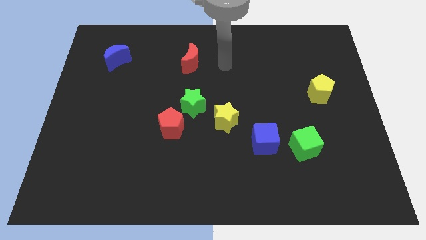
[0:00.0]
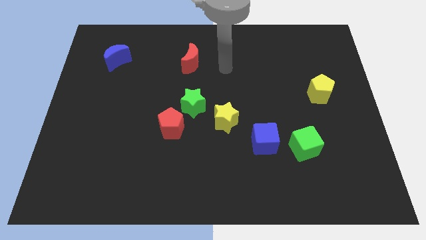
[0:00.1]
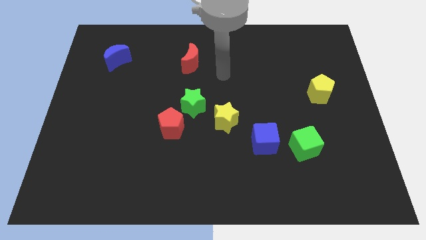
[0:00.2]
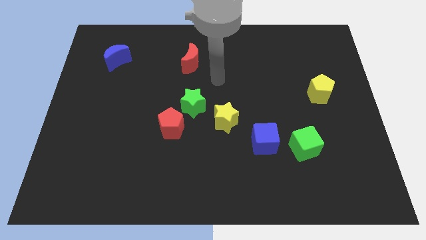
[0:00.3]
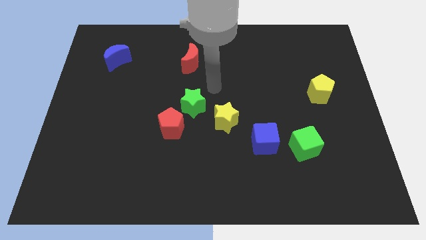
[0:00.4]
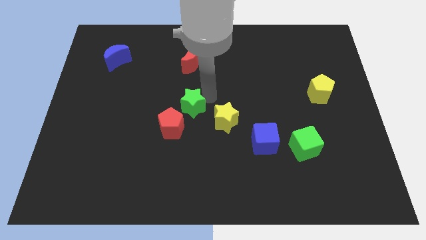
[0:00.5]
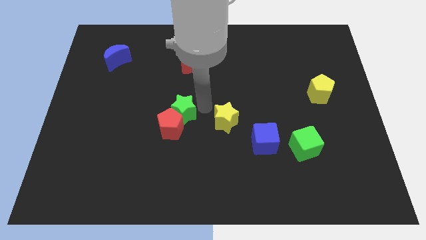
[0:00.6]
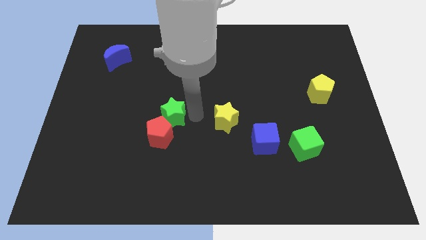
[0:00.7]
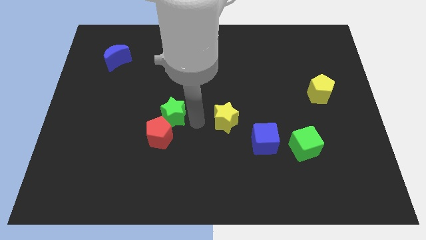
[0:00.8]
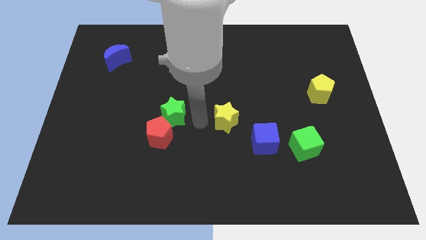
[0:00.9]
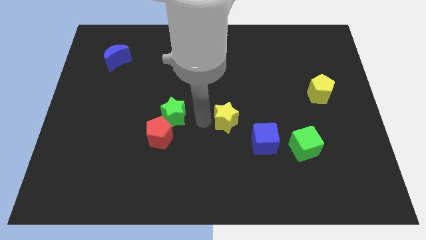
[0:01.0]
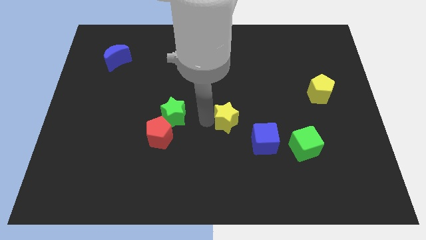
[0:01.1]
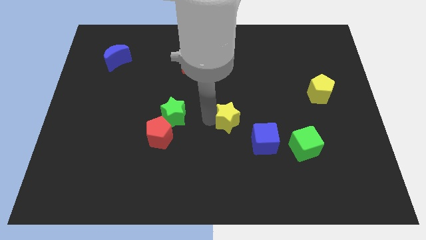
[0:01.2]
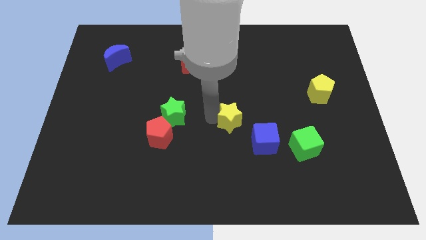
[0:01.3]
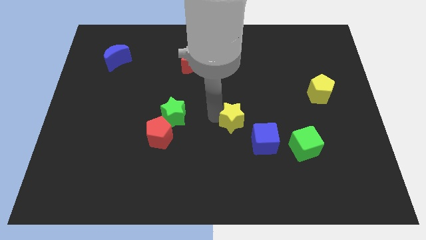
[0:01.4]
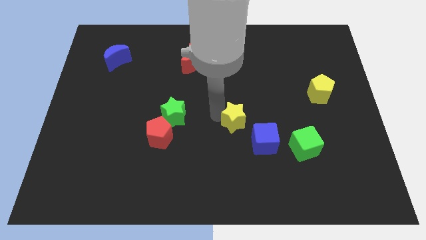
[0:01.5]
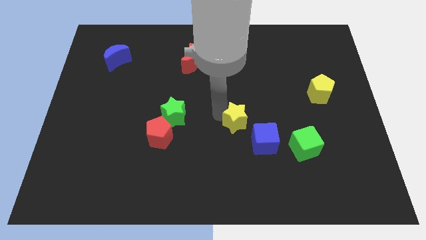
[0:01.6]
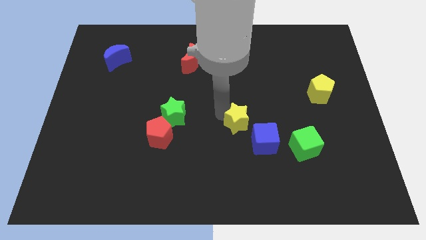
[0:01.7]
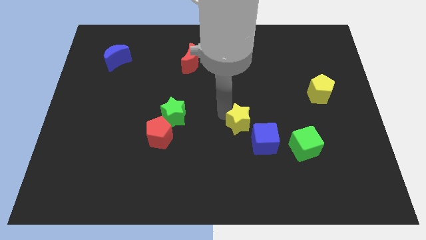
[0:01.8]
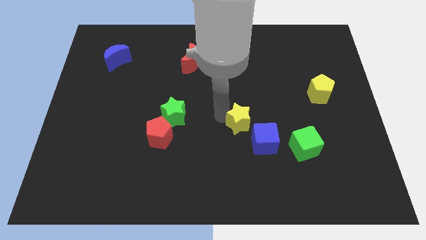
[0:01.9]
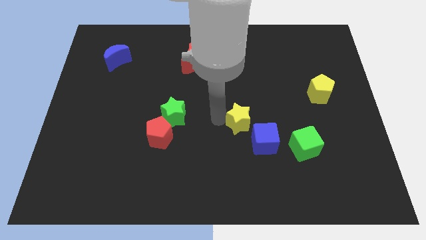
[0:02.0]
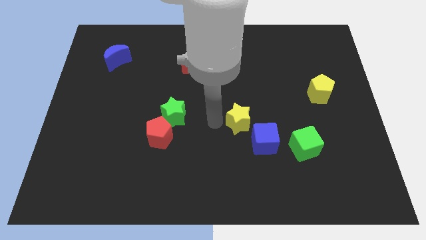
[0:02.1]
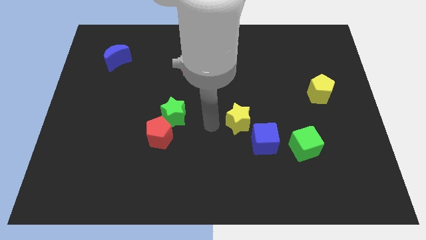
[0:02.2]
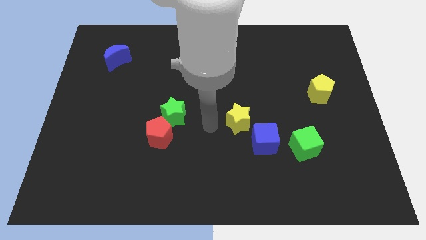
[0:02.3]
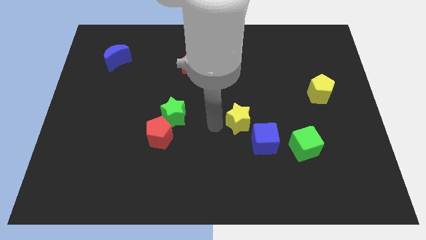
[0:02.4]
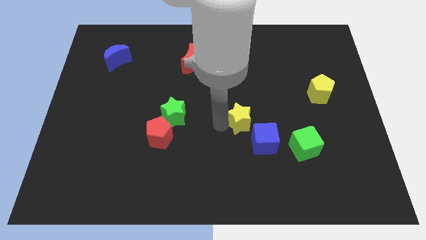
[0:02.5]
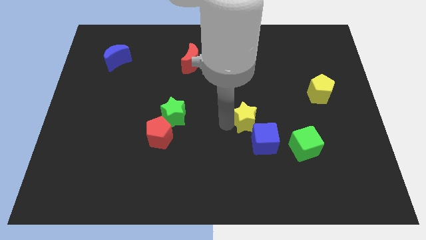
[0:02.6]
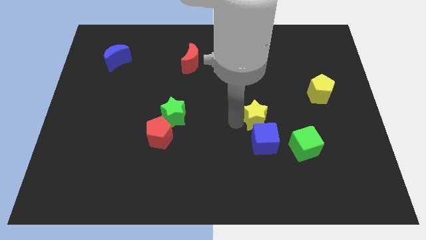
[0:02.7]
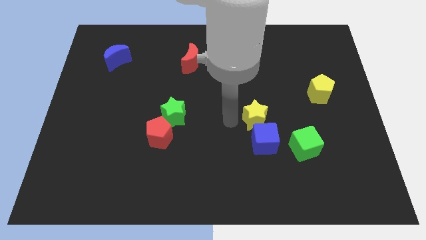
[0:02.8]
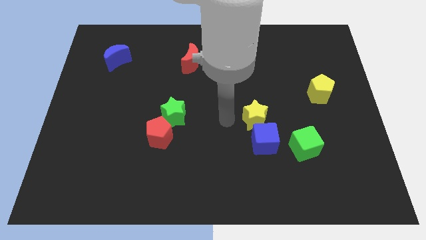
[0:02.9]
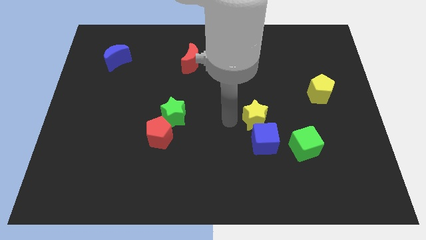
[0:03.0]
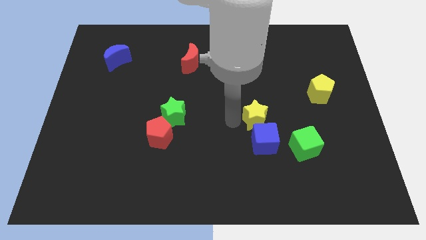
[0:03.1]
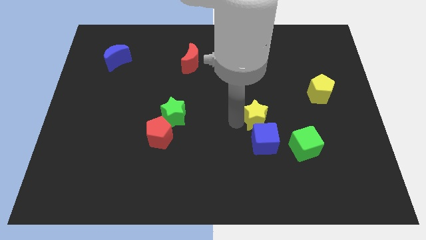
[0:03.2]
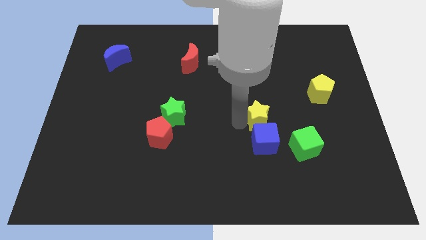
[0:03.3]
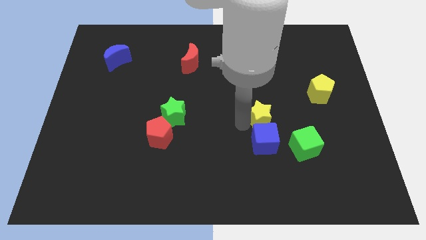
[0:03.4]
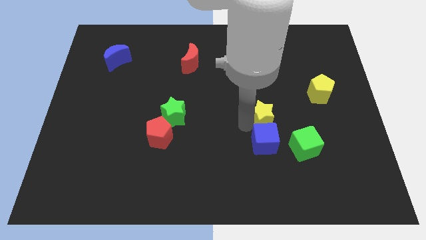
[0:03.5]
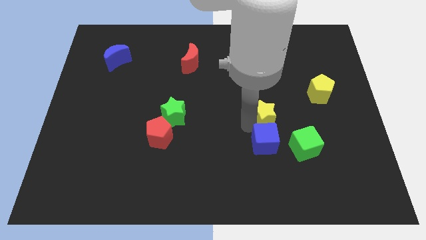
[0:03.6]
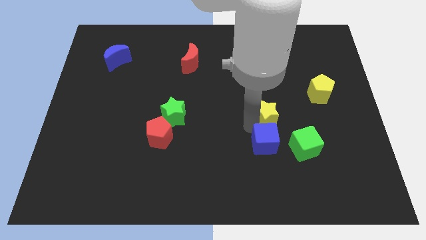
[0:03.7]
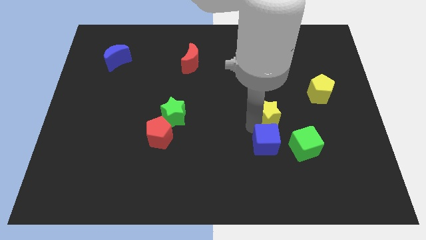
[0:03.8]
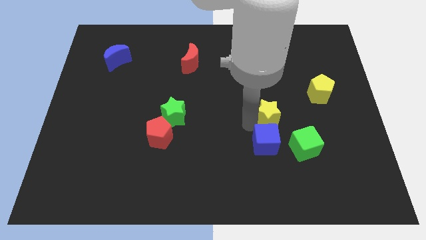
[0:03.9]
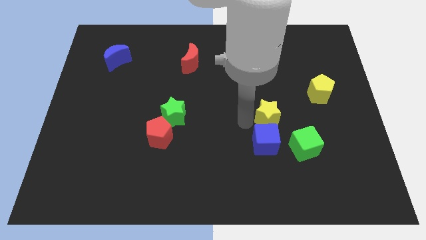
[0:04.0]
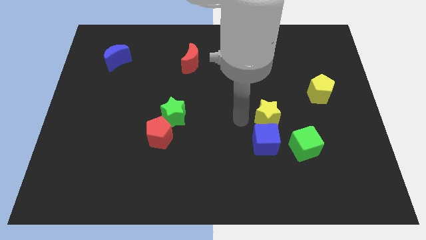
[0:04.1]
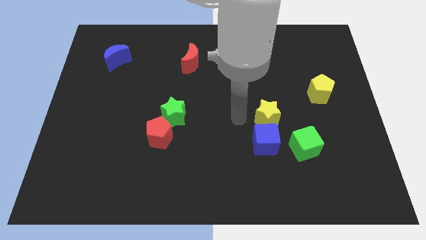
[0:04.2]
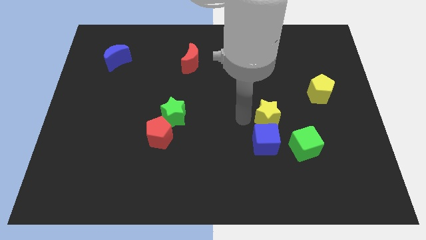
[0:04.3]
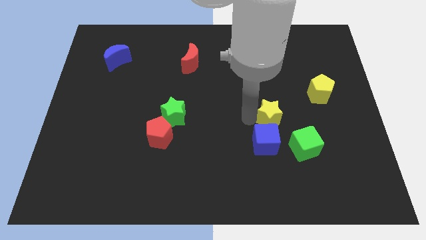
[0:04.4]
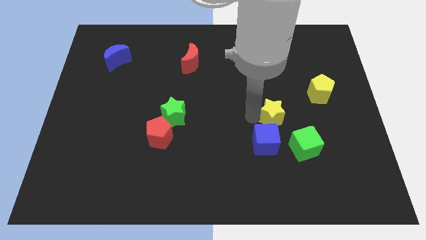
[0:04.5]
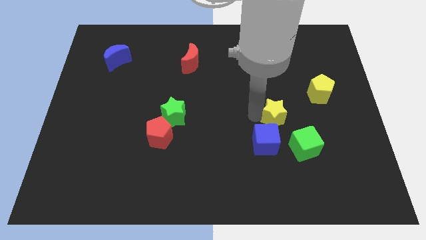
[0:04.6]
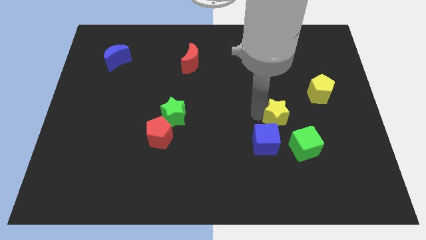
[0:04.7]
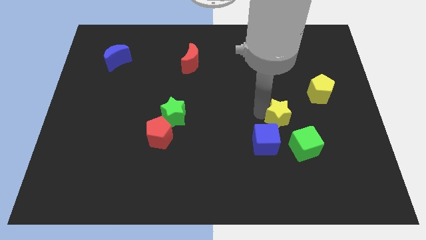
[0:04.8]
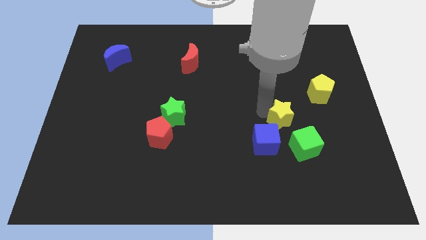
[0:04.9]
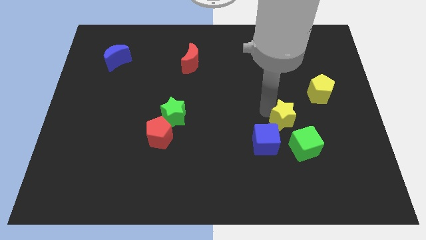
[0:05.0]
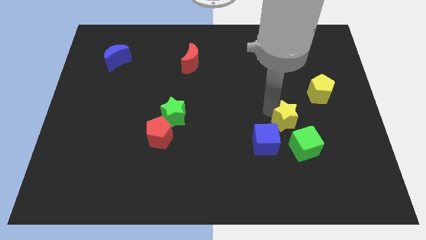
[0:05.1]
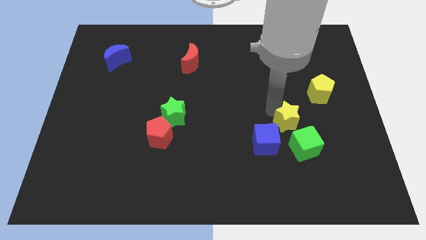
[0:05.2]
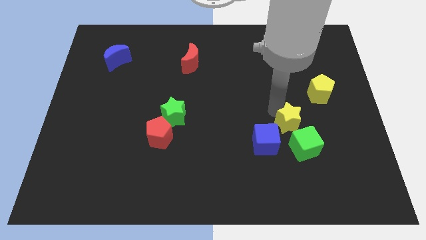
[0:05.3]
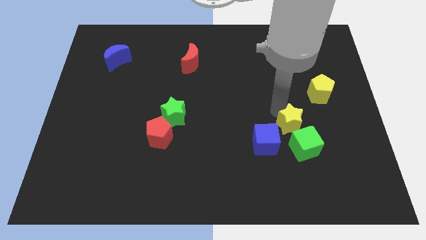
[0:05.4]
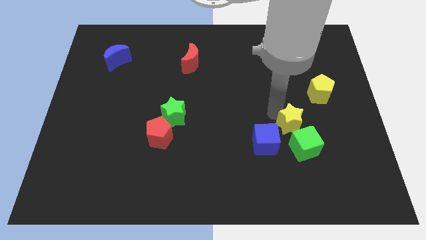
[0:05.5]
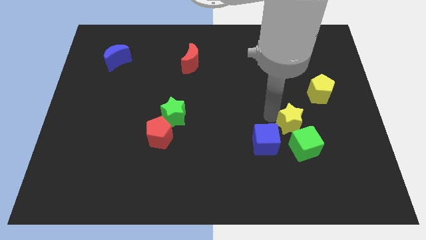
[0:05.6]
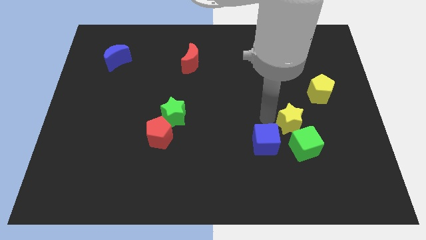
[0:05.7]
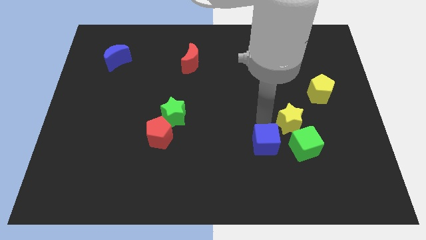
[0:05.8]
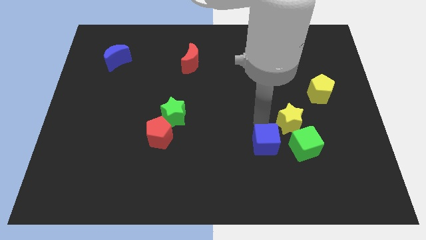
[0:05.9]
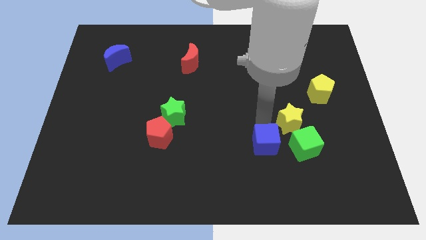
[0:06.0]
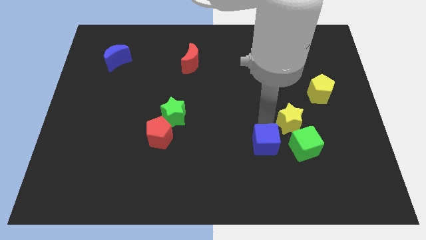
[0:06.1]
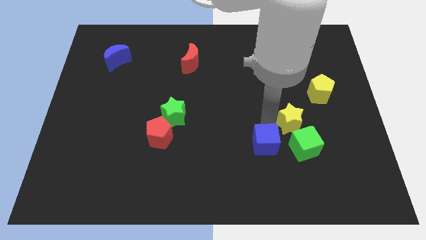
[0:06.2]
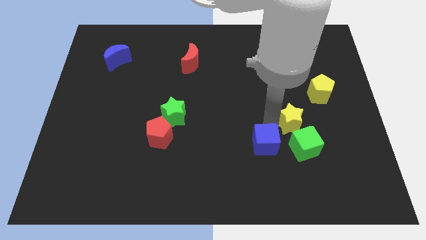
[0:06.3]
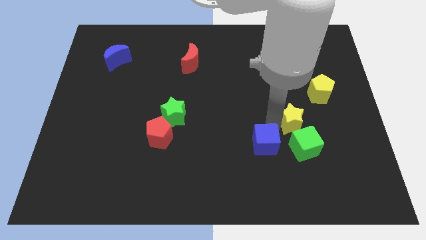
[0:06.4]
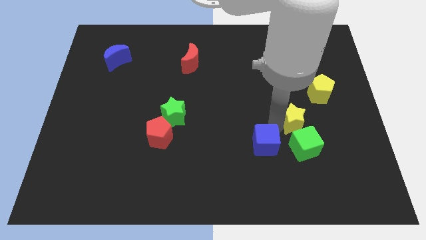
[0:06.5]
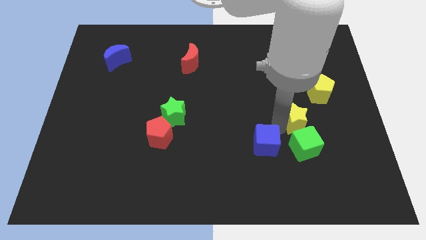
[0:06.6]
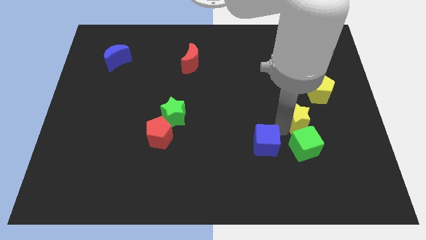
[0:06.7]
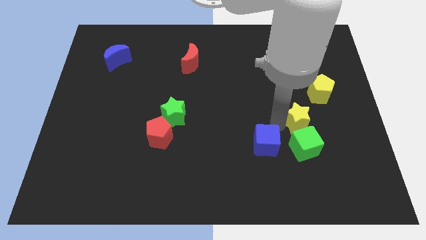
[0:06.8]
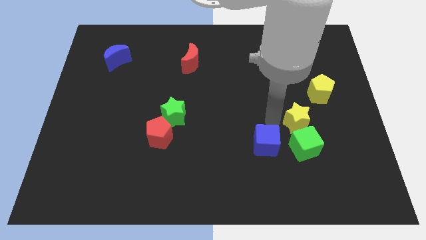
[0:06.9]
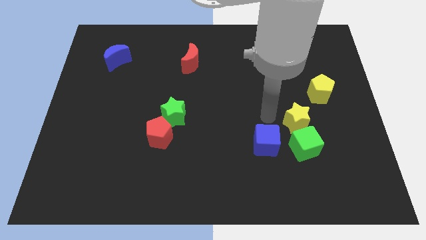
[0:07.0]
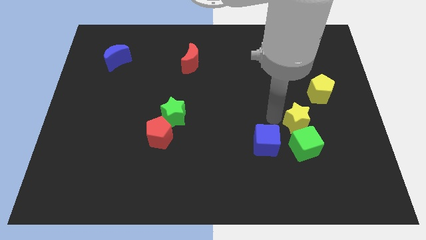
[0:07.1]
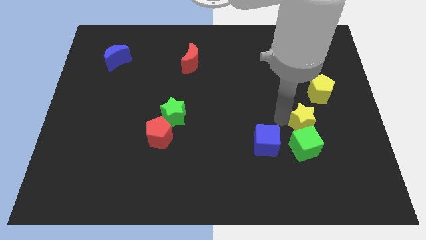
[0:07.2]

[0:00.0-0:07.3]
push the yellow star diagonally up and to the right of the green cube
